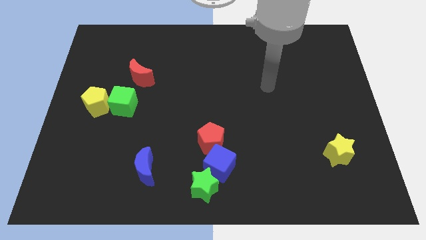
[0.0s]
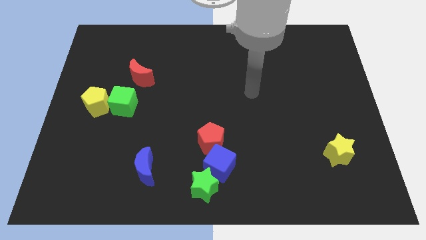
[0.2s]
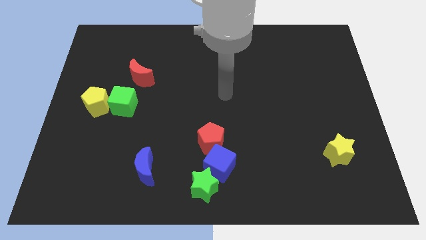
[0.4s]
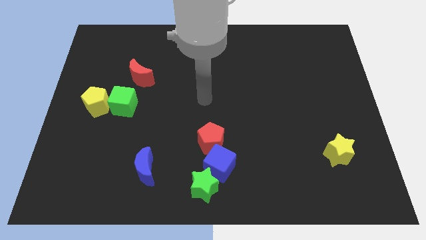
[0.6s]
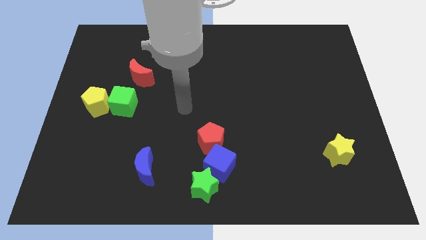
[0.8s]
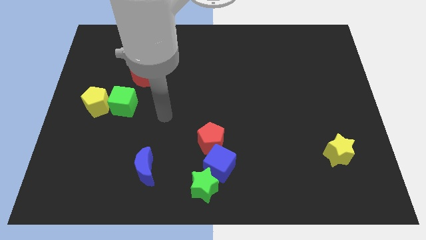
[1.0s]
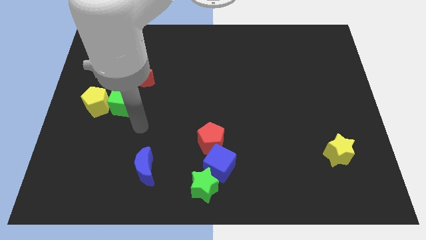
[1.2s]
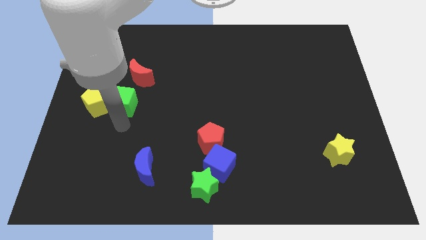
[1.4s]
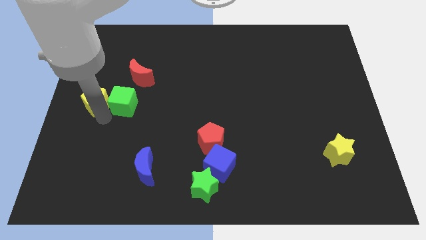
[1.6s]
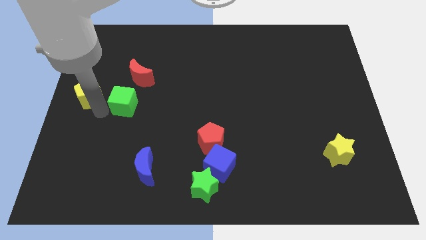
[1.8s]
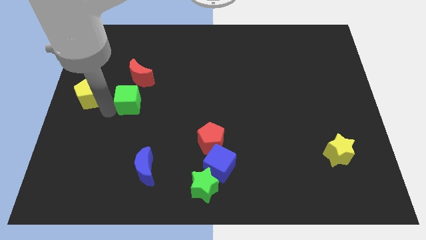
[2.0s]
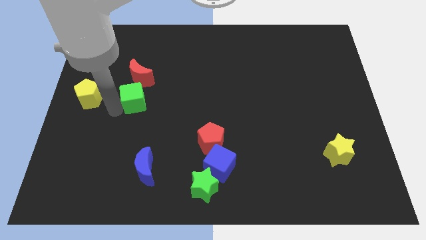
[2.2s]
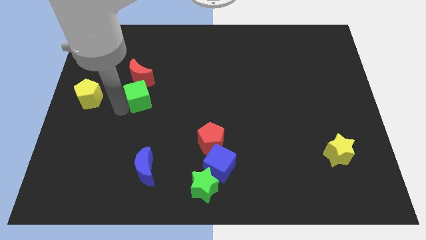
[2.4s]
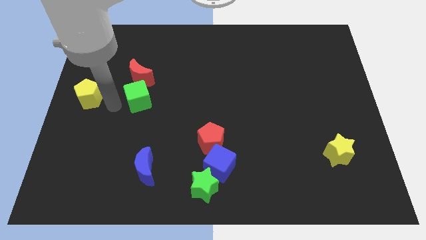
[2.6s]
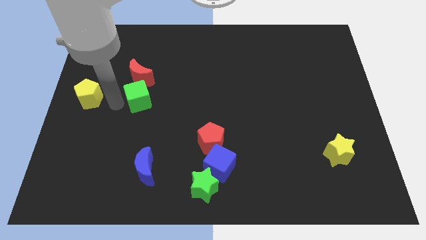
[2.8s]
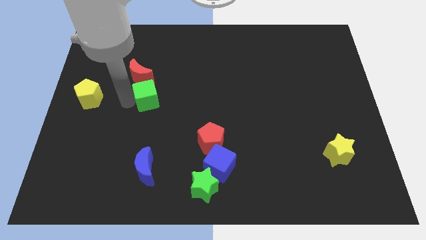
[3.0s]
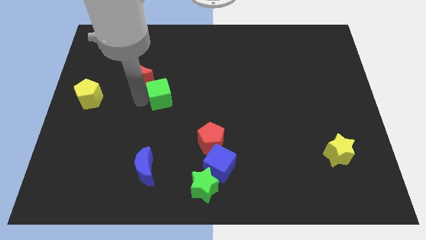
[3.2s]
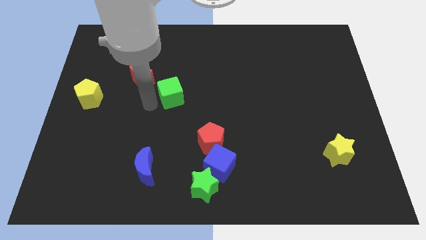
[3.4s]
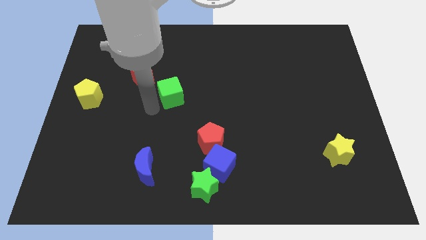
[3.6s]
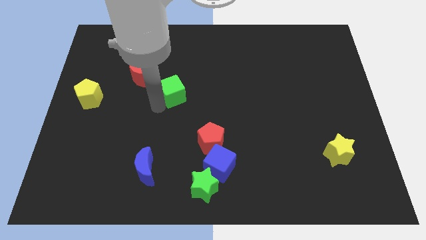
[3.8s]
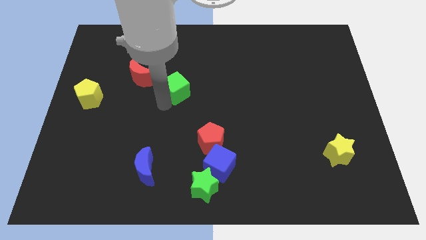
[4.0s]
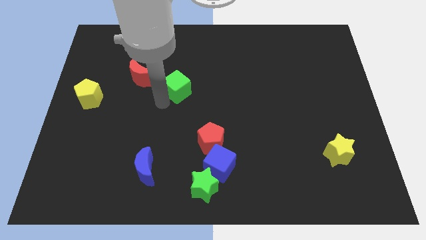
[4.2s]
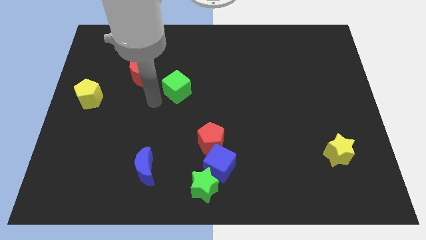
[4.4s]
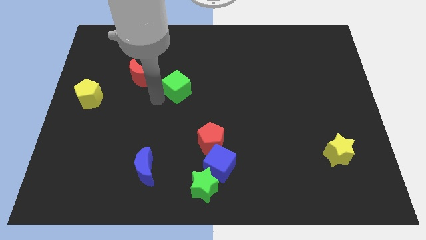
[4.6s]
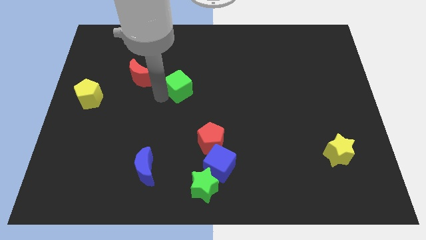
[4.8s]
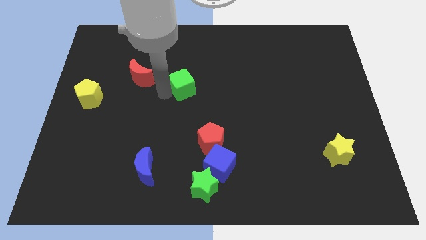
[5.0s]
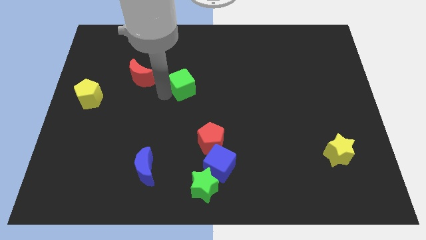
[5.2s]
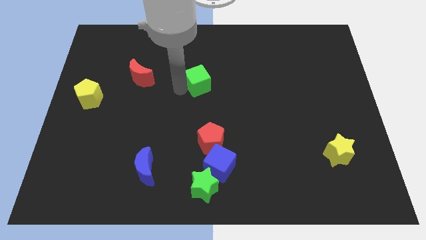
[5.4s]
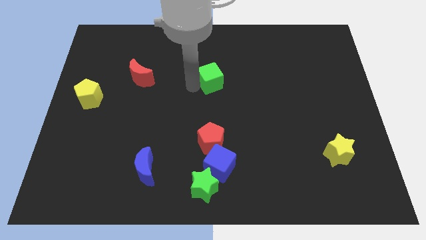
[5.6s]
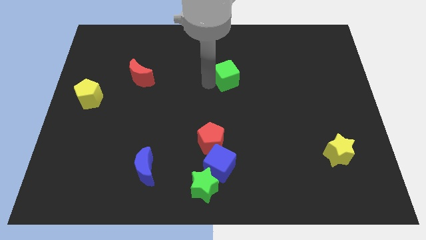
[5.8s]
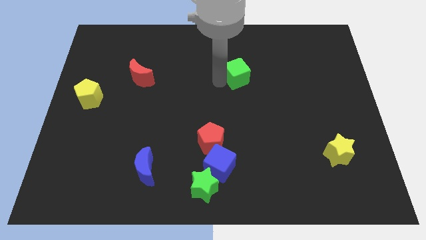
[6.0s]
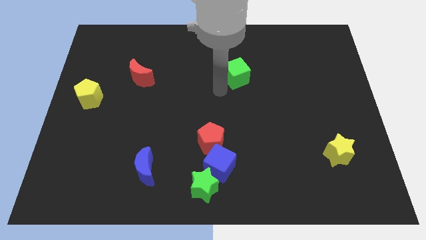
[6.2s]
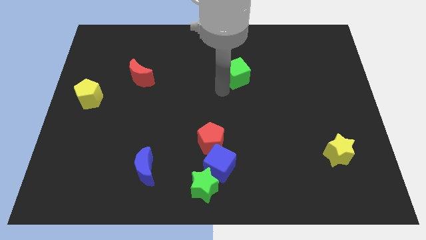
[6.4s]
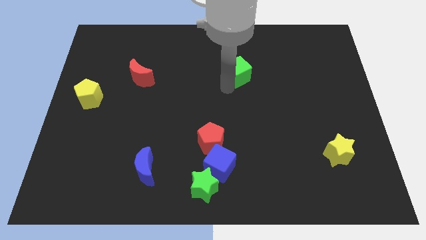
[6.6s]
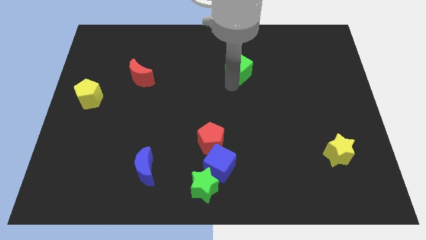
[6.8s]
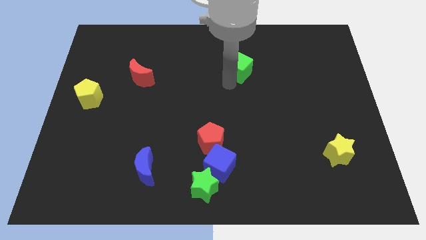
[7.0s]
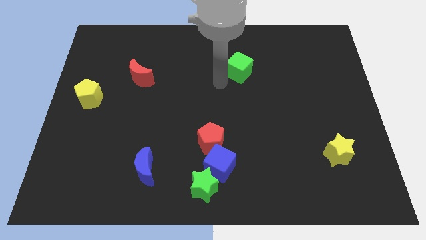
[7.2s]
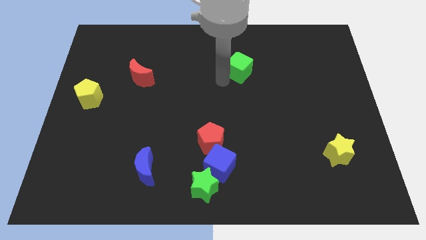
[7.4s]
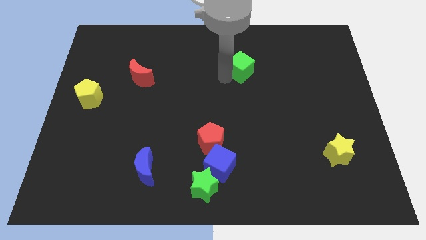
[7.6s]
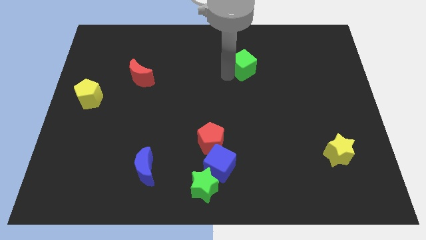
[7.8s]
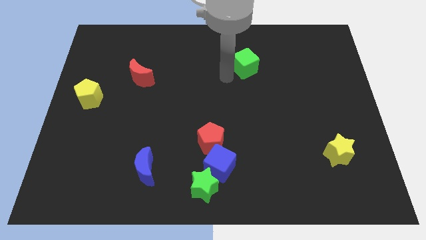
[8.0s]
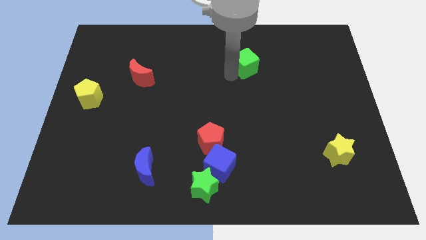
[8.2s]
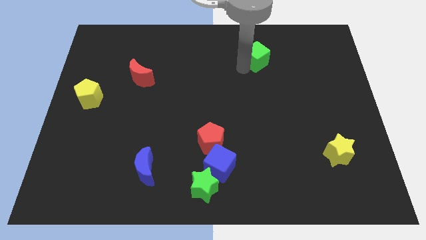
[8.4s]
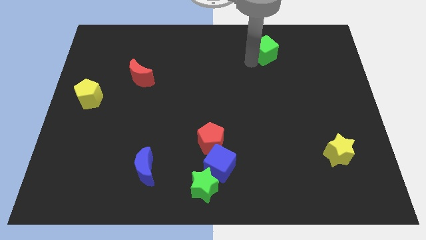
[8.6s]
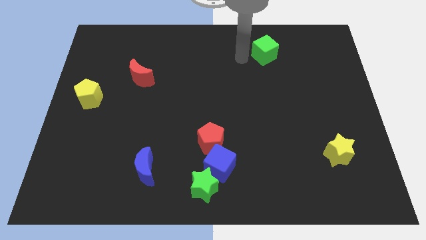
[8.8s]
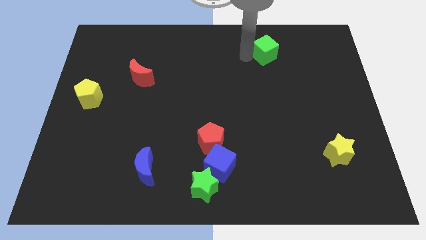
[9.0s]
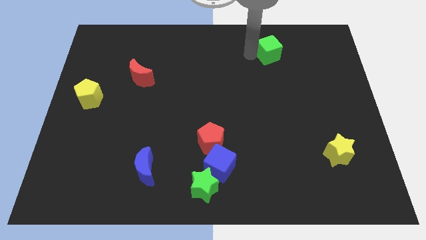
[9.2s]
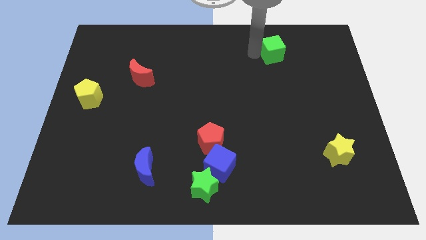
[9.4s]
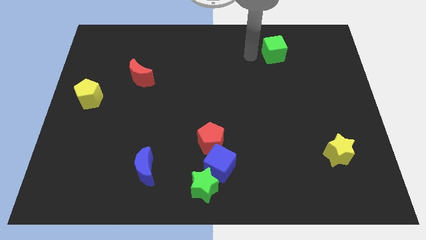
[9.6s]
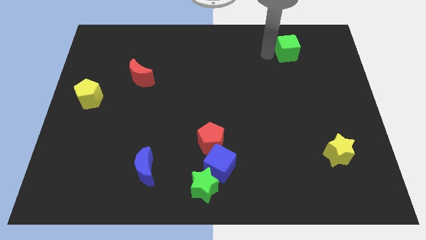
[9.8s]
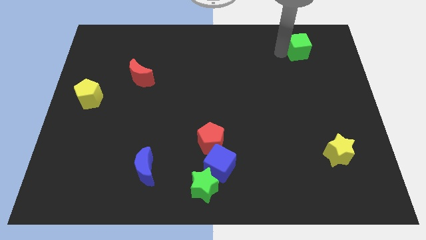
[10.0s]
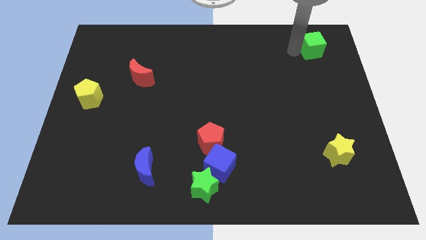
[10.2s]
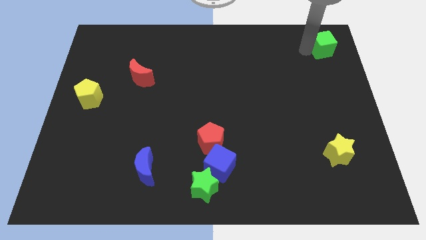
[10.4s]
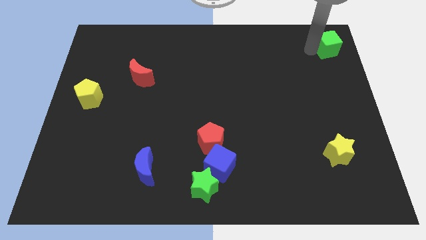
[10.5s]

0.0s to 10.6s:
push the green cube to the top right corner

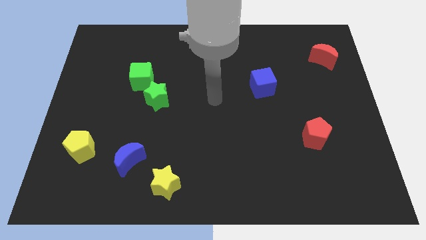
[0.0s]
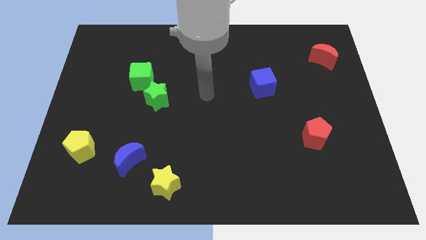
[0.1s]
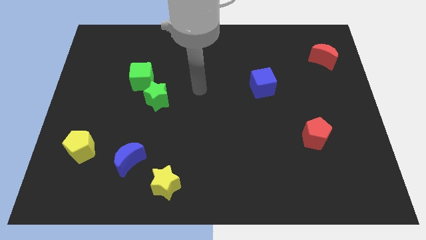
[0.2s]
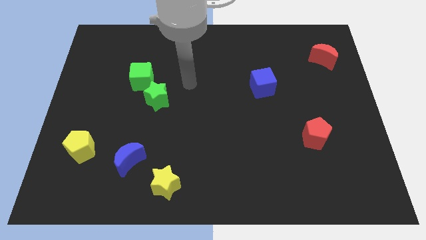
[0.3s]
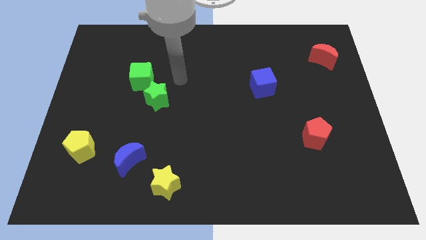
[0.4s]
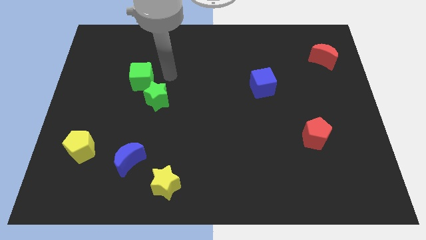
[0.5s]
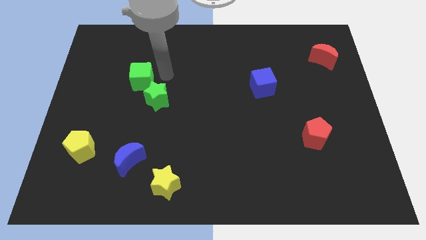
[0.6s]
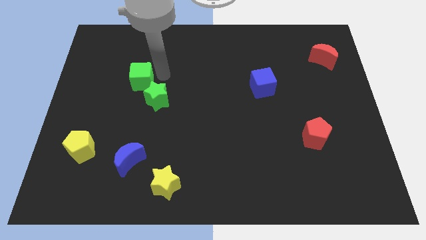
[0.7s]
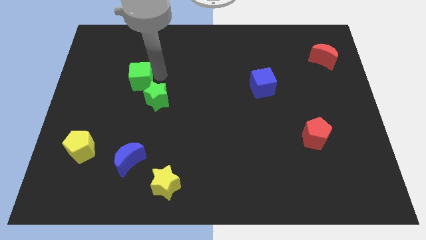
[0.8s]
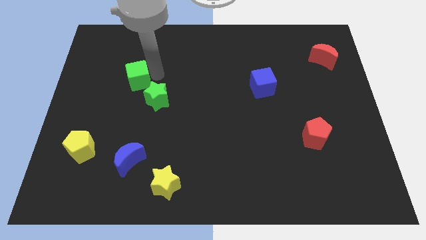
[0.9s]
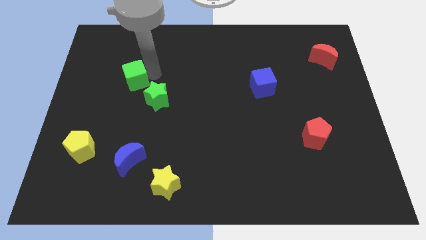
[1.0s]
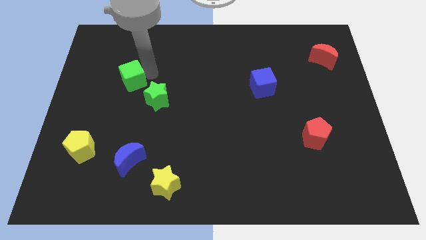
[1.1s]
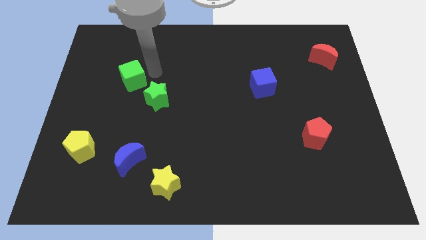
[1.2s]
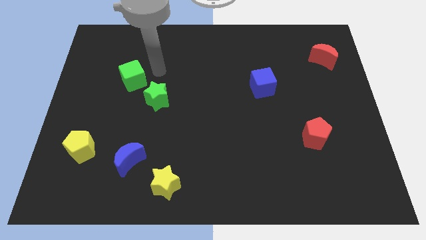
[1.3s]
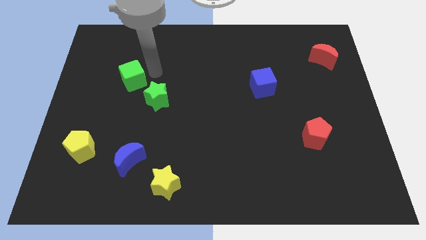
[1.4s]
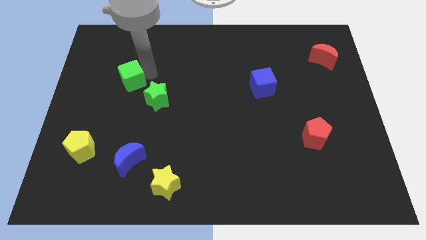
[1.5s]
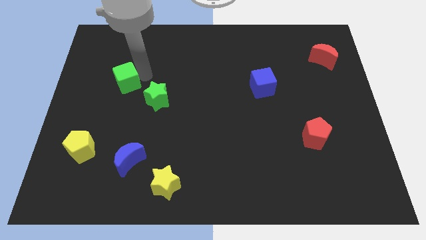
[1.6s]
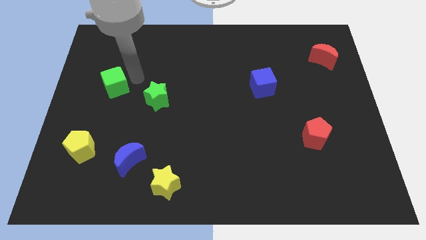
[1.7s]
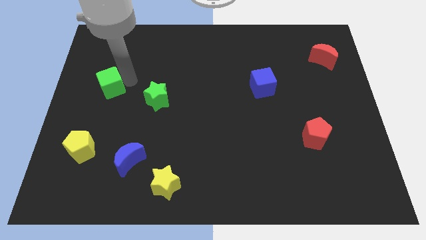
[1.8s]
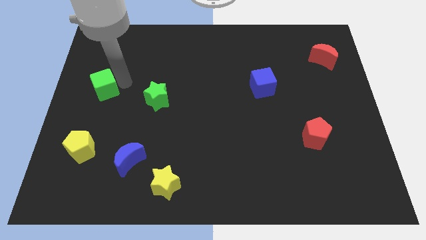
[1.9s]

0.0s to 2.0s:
put the green cube to the left side

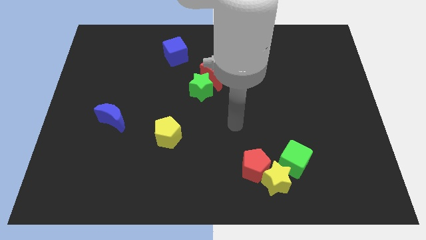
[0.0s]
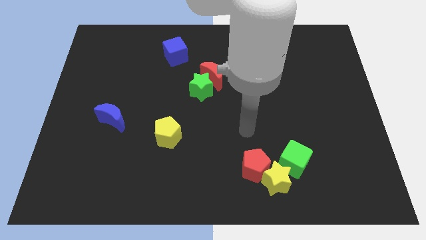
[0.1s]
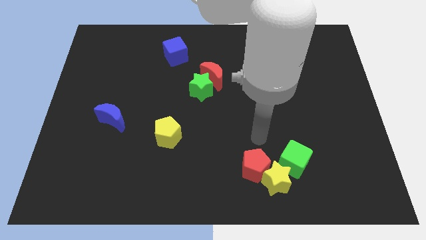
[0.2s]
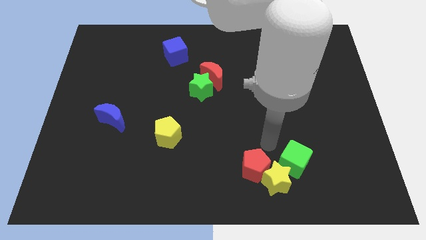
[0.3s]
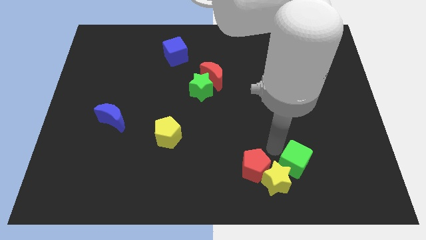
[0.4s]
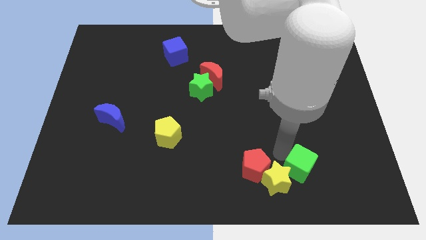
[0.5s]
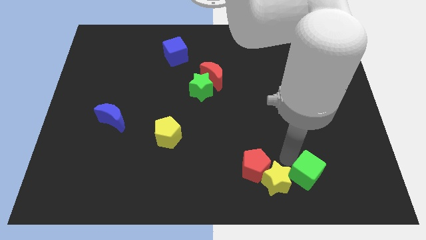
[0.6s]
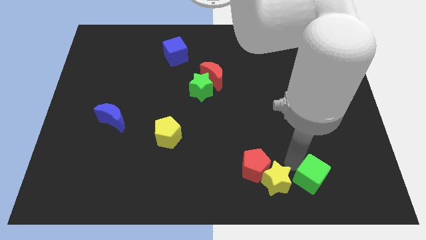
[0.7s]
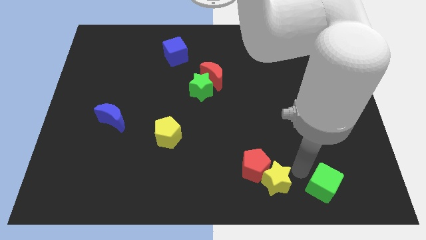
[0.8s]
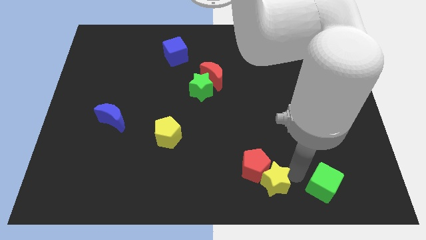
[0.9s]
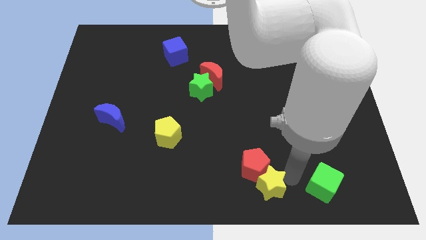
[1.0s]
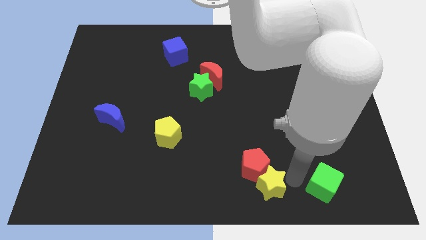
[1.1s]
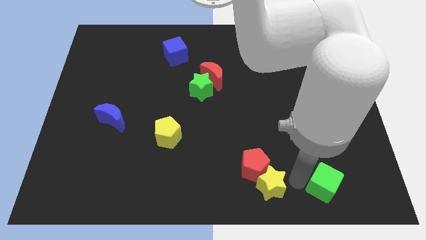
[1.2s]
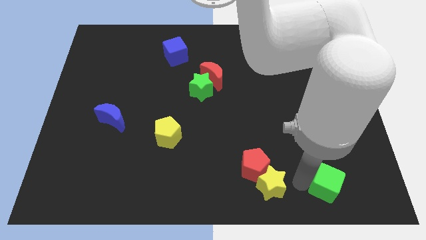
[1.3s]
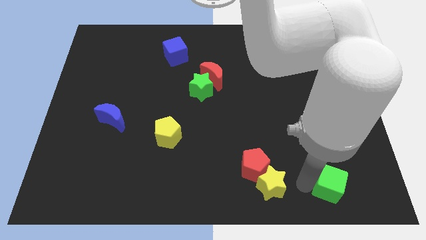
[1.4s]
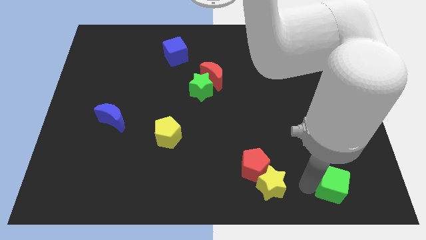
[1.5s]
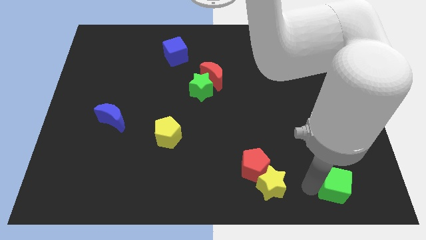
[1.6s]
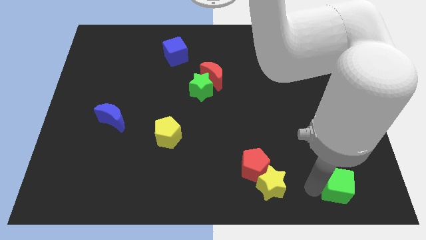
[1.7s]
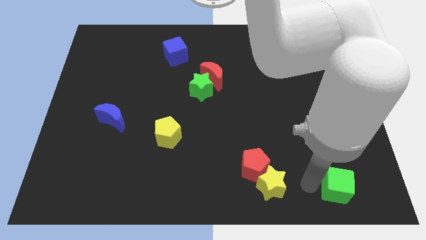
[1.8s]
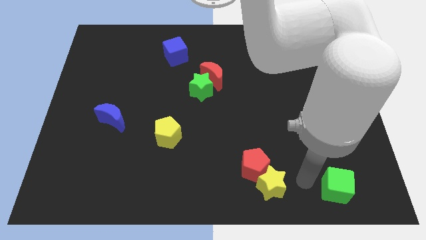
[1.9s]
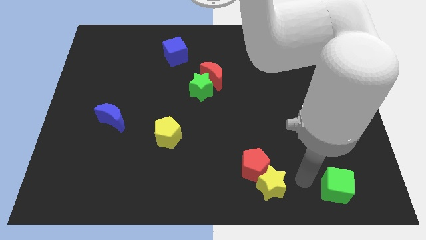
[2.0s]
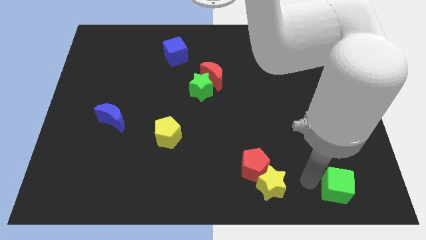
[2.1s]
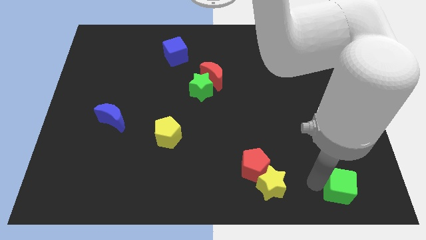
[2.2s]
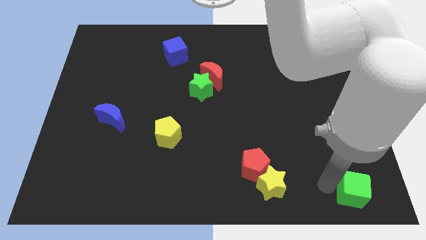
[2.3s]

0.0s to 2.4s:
push the green cube to the bottom right of the board
